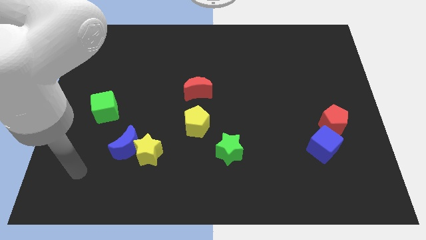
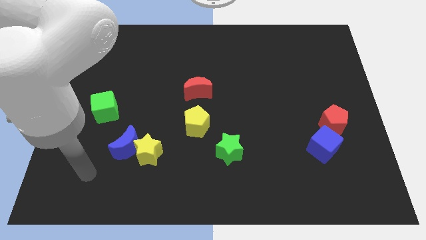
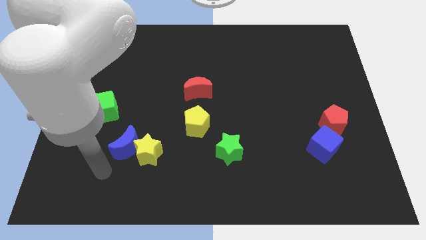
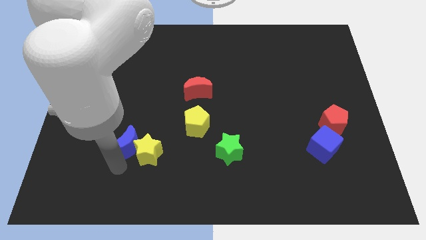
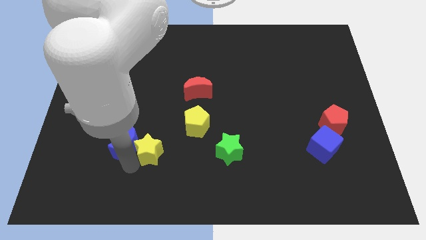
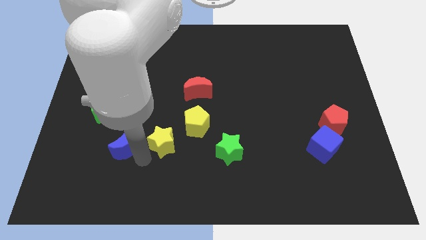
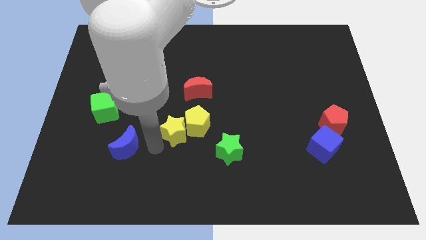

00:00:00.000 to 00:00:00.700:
pull the blue moon apart from the yellow star

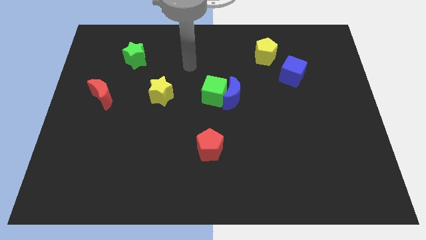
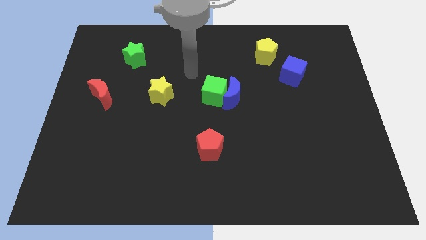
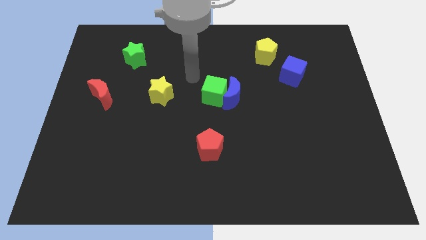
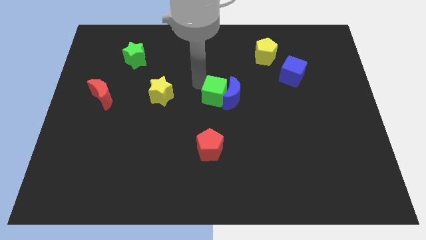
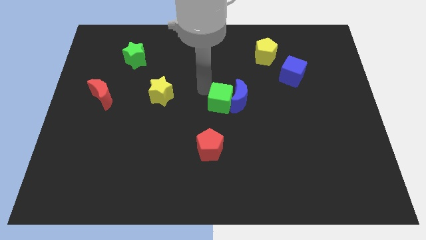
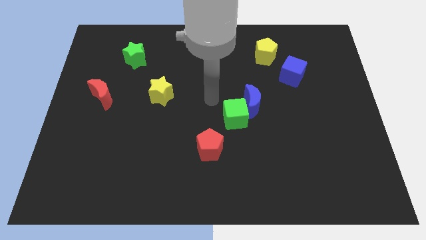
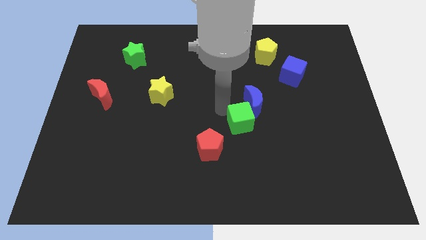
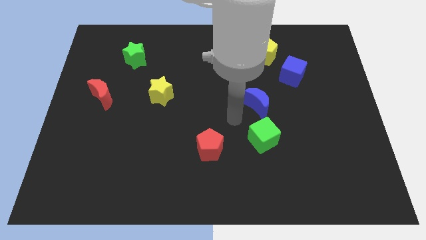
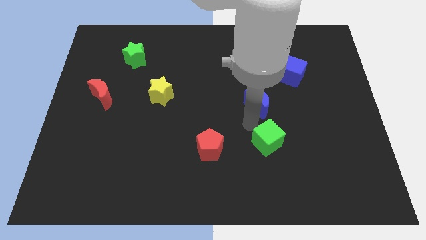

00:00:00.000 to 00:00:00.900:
move the blue moon away from the green cube

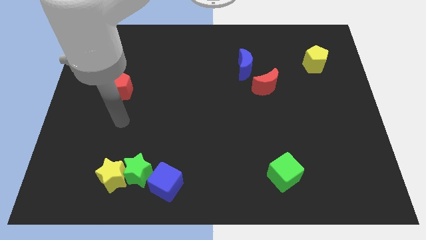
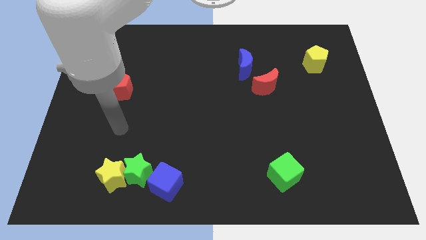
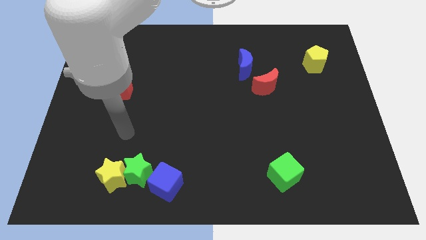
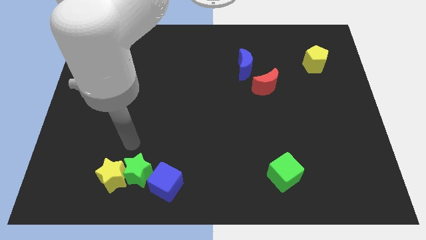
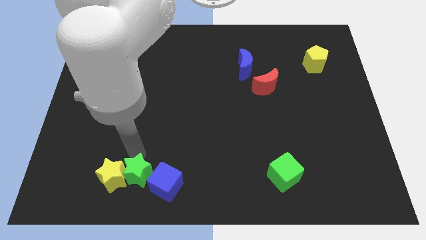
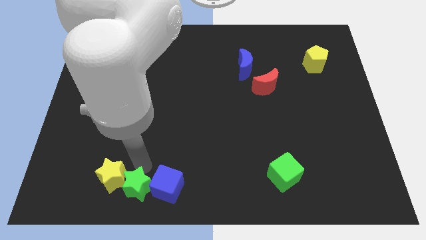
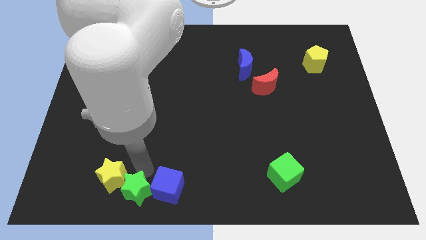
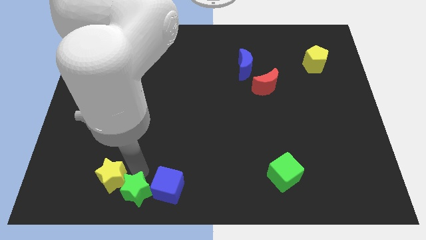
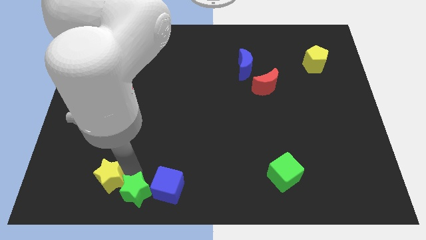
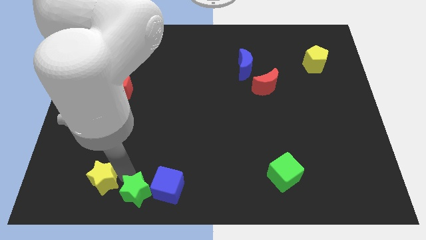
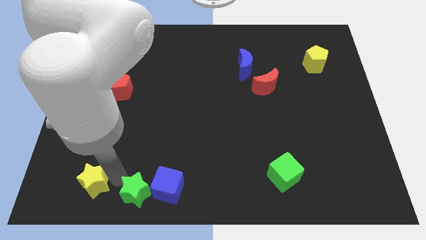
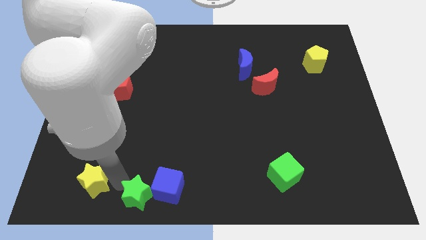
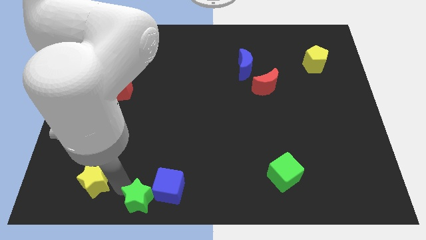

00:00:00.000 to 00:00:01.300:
move the yellow star away from the green star

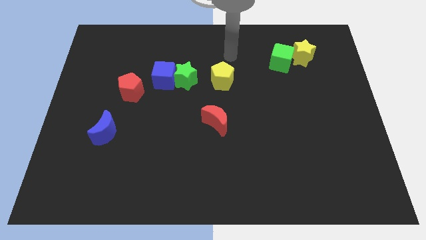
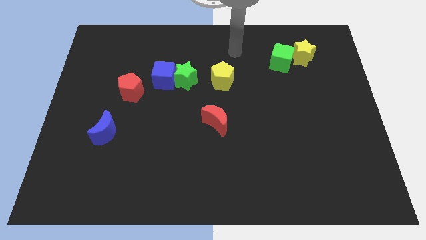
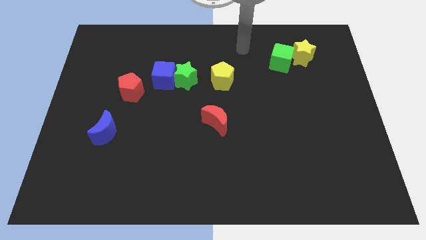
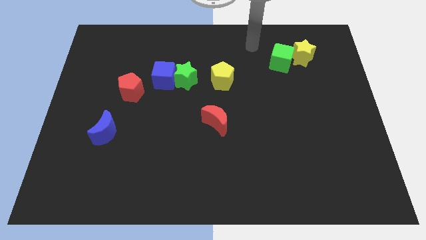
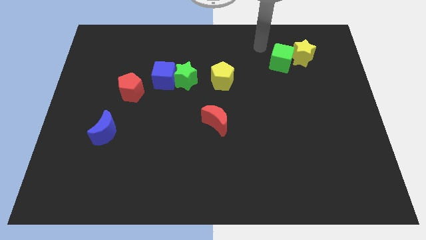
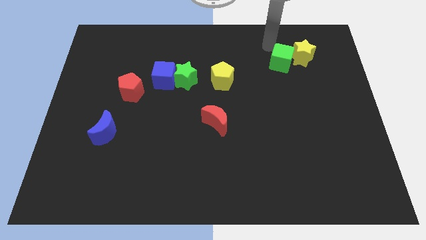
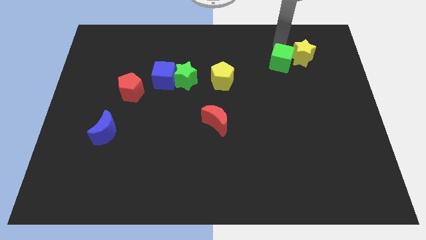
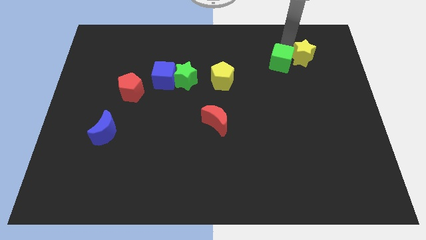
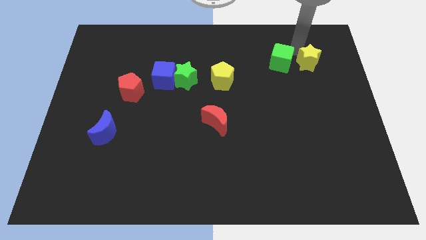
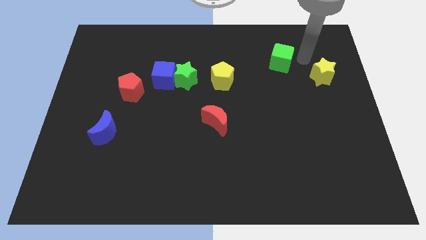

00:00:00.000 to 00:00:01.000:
pull the green cube apart from the yellow star

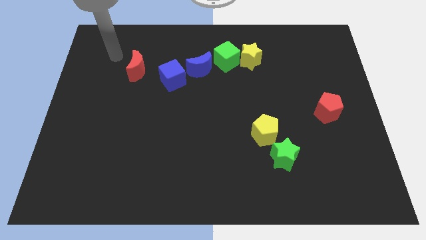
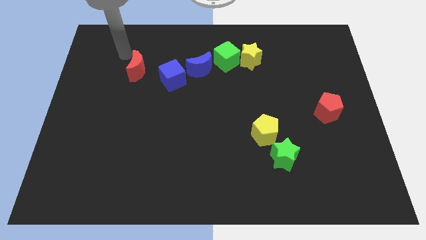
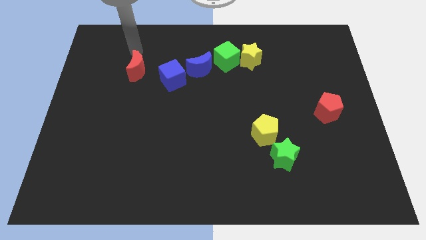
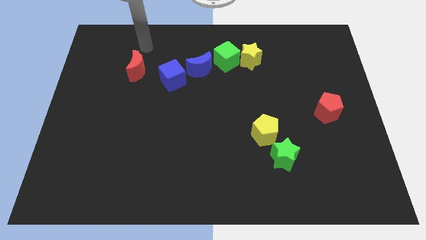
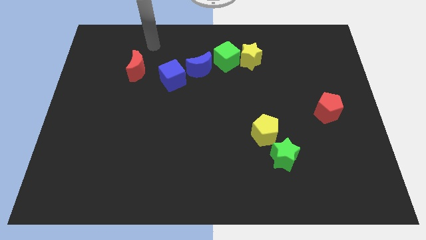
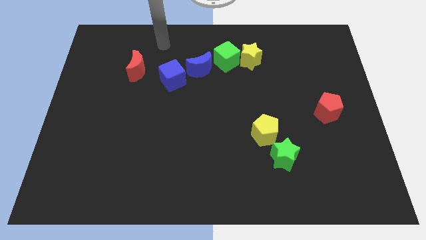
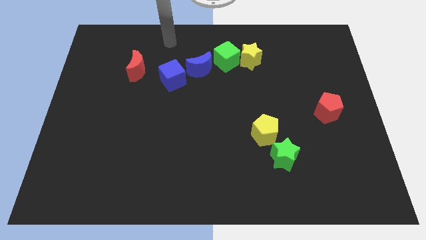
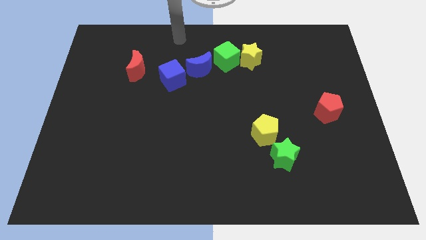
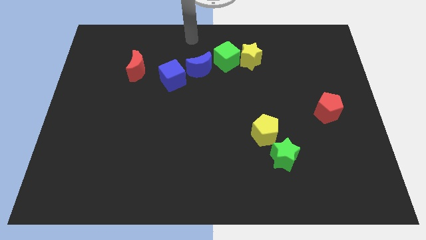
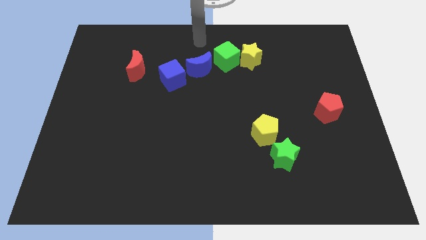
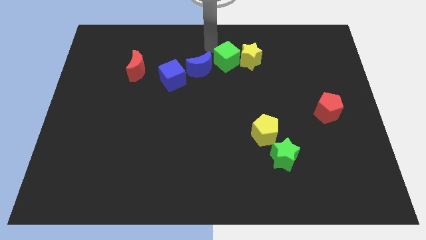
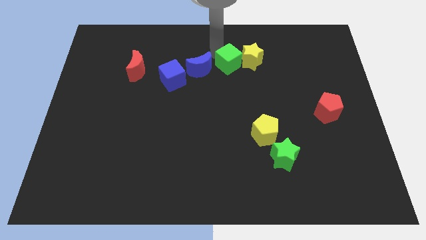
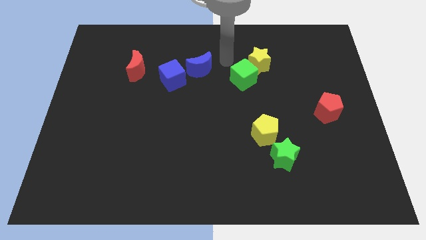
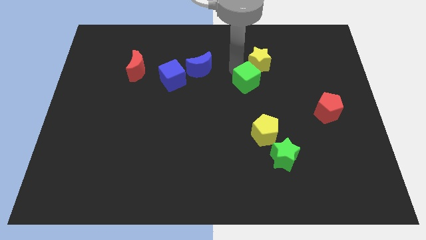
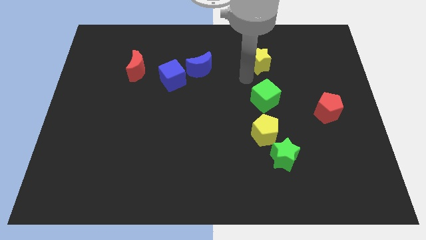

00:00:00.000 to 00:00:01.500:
pull the yellow star apart from the green cube

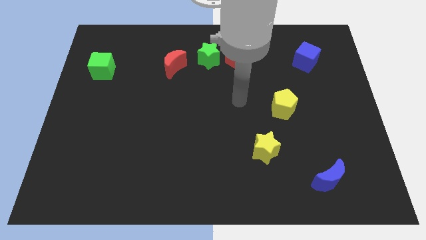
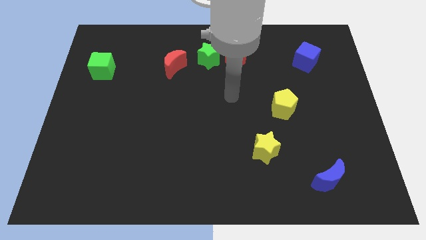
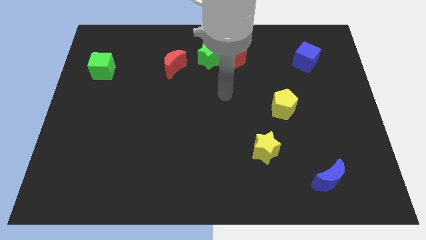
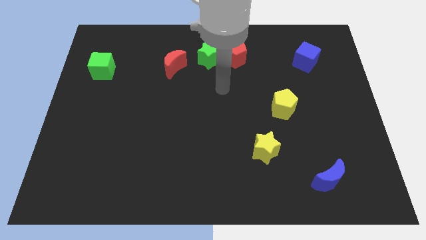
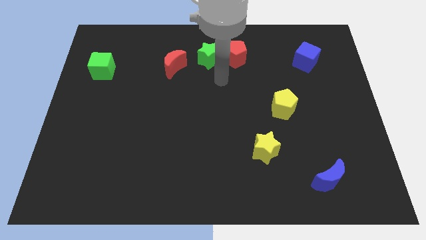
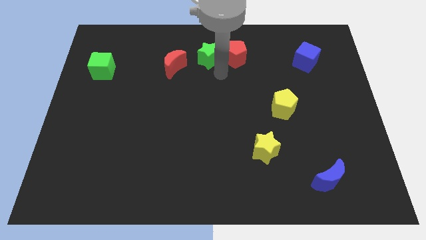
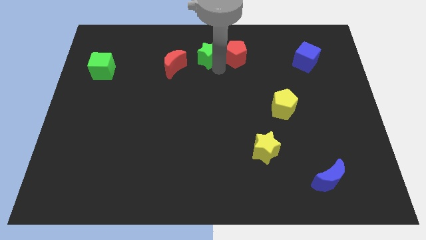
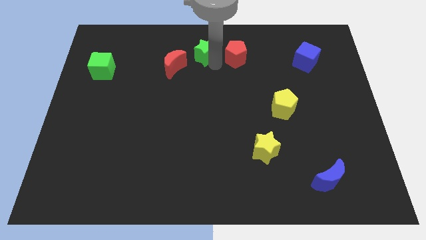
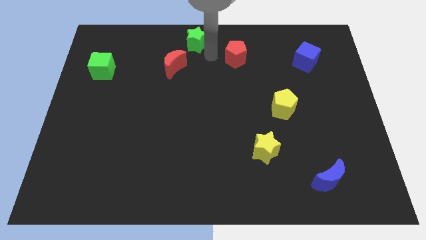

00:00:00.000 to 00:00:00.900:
separate the red pentagon from the green star

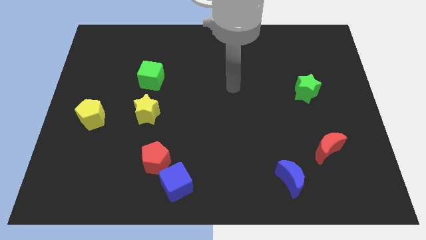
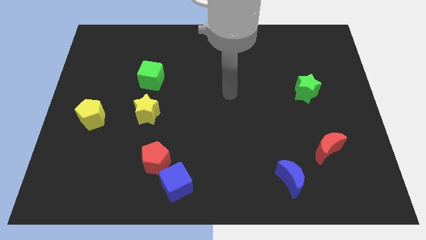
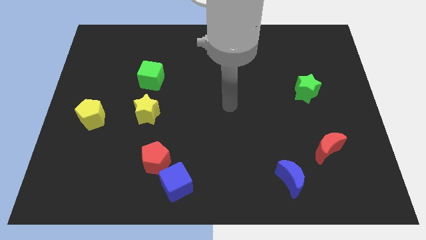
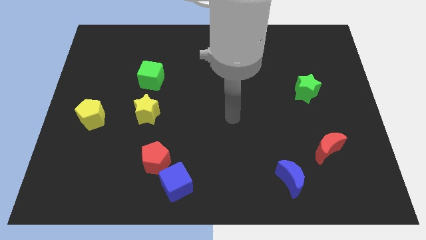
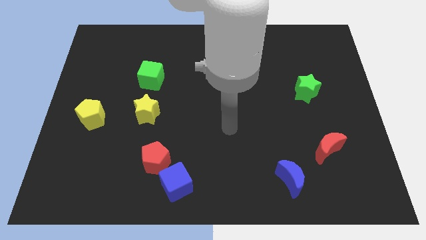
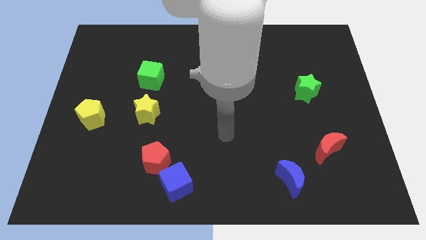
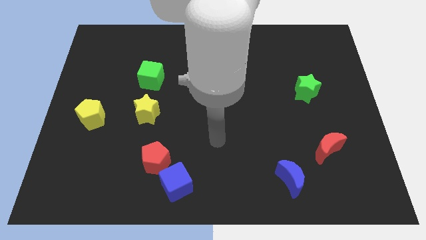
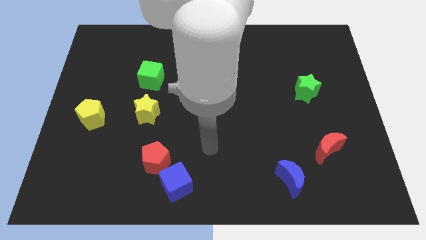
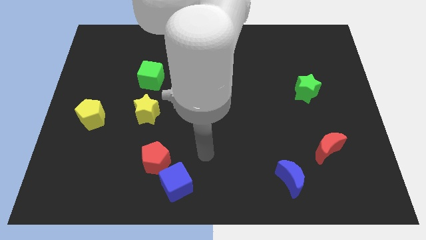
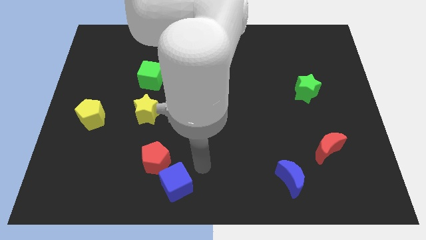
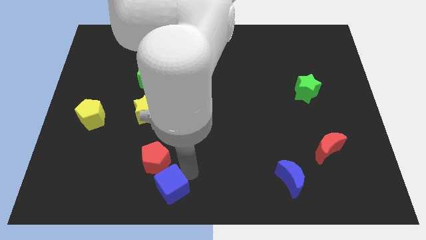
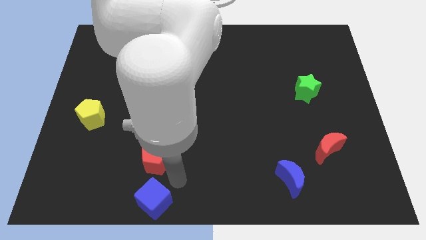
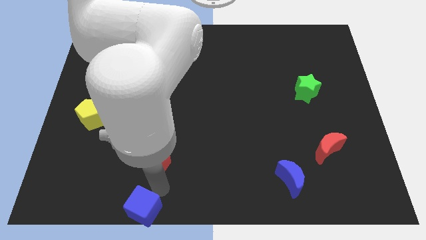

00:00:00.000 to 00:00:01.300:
pull the red pentagon apart from the blue cube

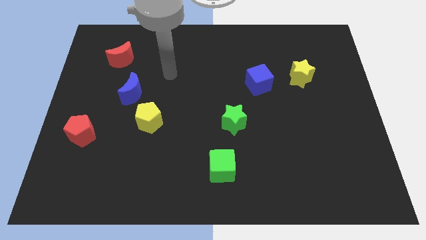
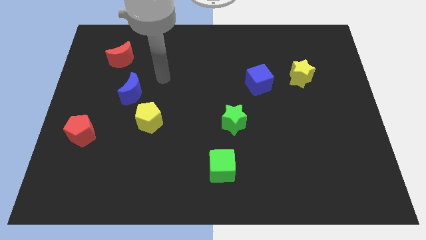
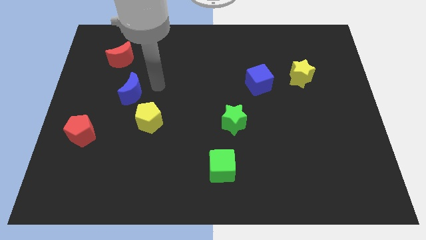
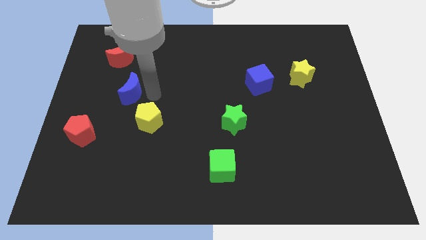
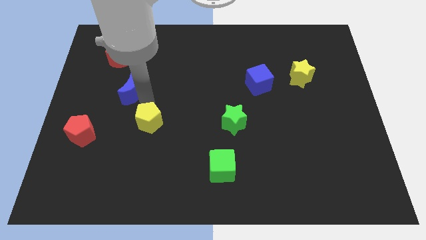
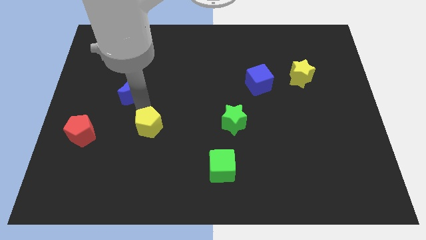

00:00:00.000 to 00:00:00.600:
move the blue moon away from the yellow pentagon

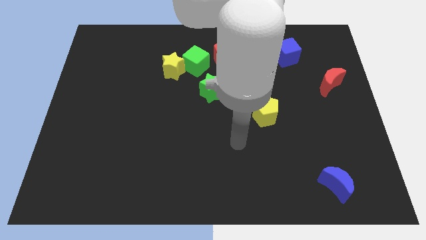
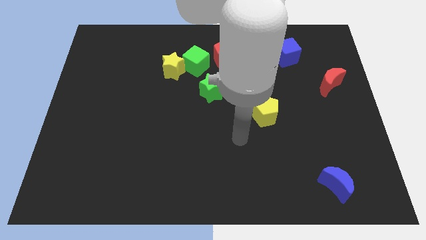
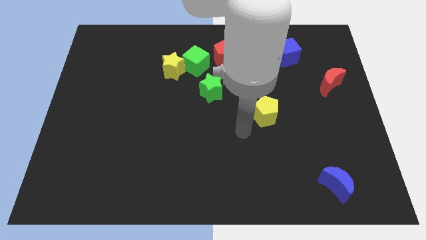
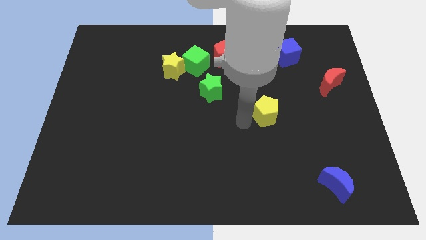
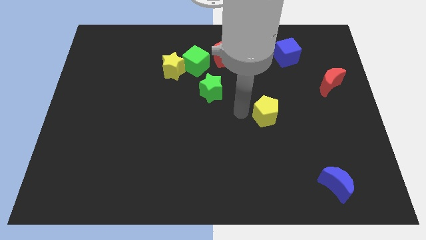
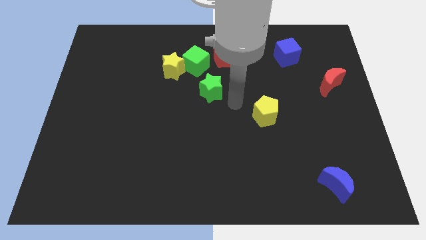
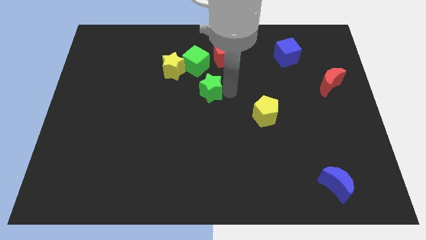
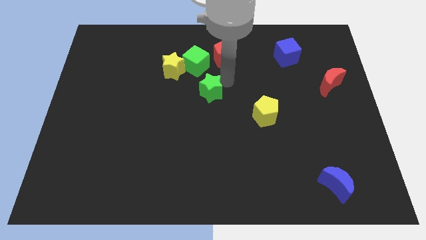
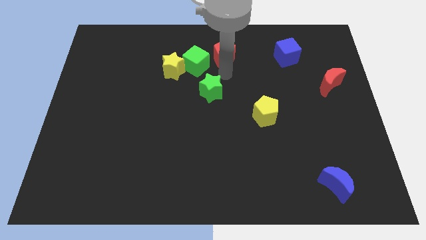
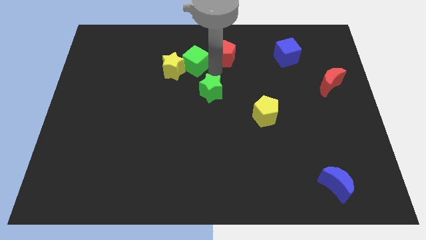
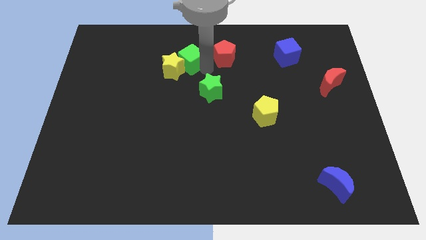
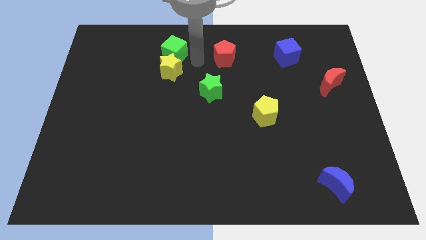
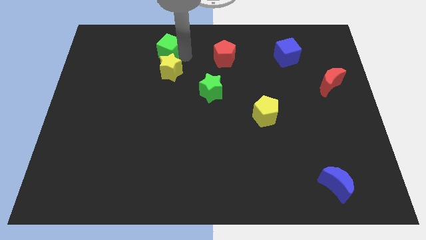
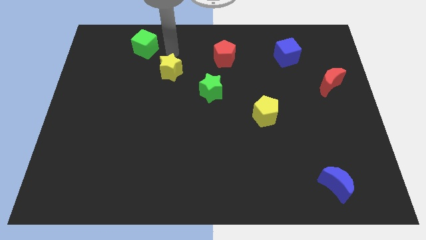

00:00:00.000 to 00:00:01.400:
move the yellow star away from the green cube
